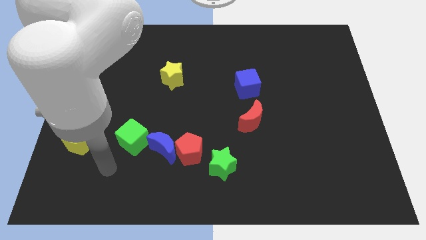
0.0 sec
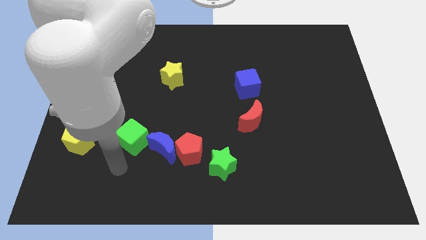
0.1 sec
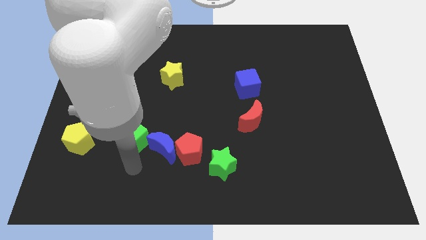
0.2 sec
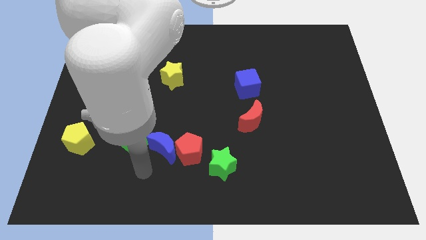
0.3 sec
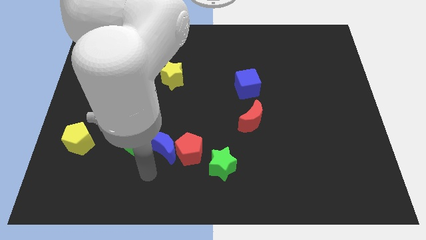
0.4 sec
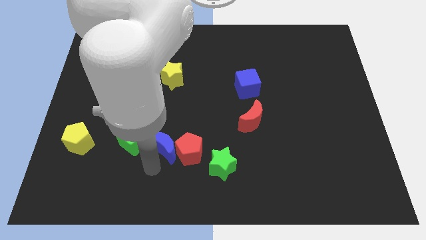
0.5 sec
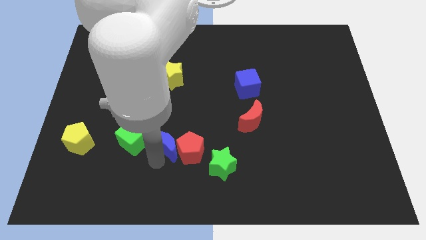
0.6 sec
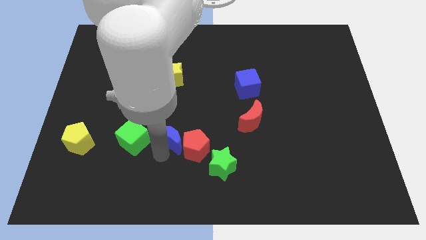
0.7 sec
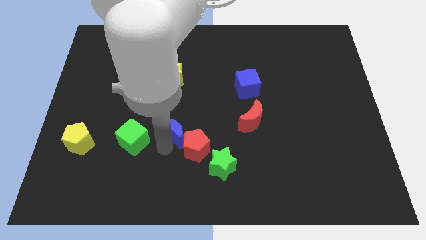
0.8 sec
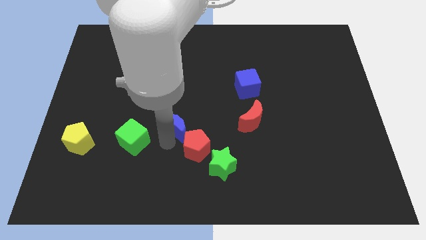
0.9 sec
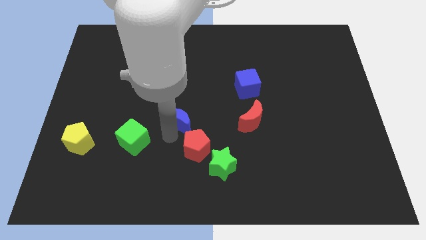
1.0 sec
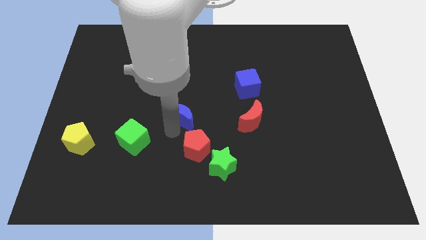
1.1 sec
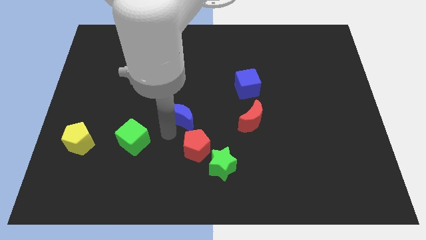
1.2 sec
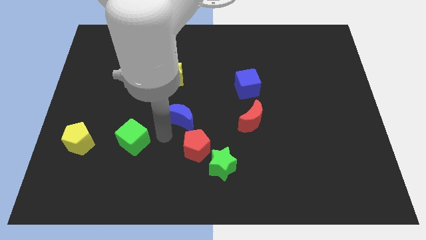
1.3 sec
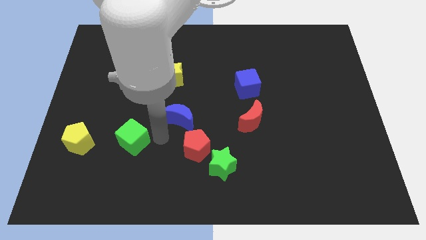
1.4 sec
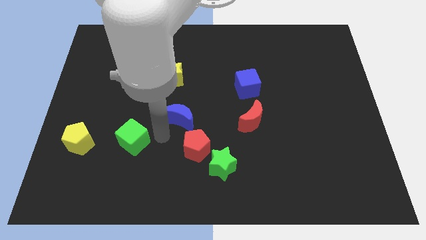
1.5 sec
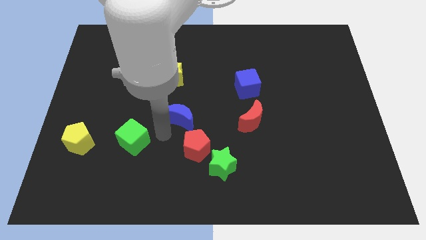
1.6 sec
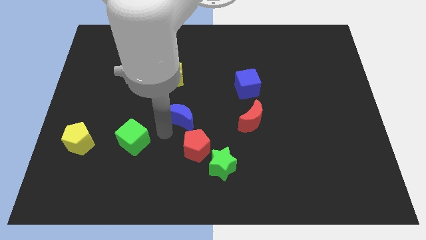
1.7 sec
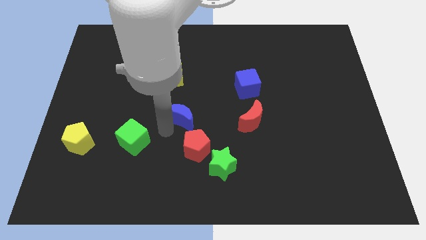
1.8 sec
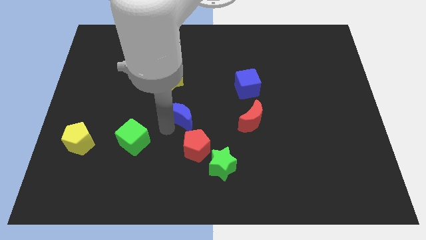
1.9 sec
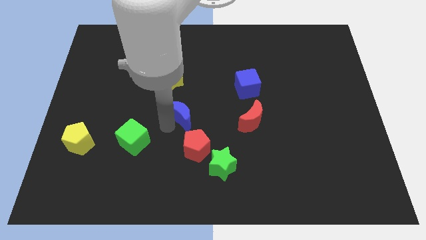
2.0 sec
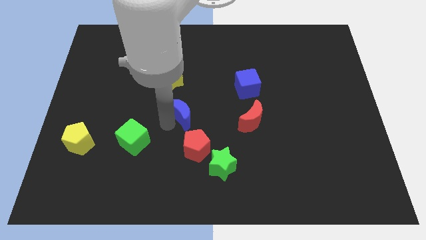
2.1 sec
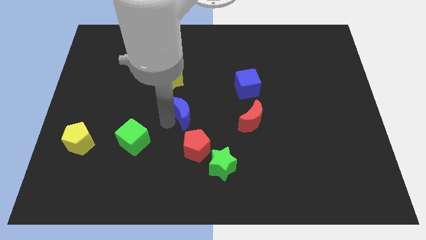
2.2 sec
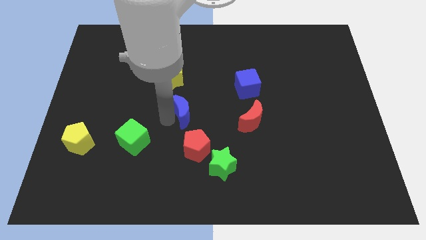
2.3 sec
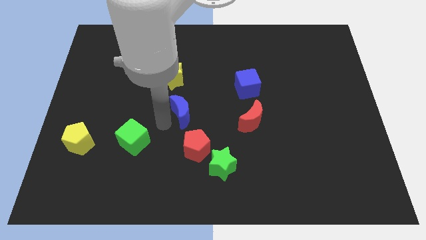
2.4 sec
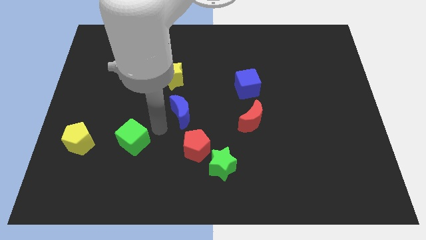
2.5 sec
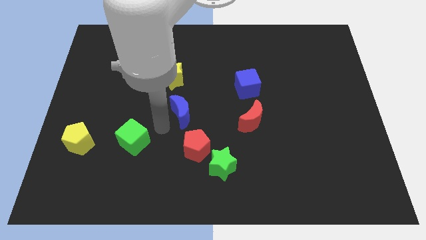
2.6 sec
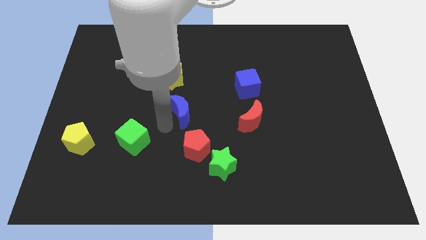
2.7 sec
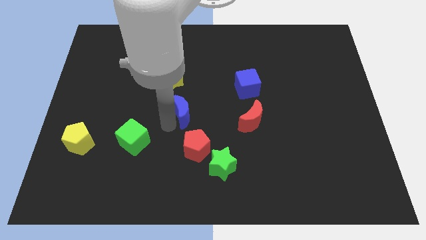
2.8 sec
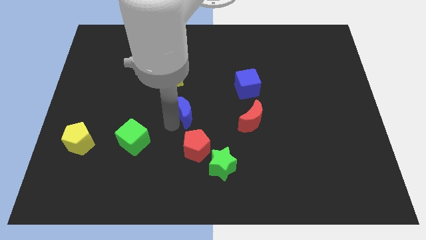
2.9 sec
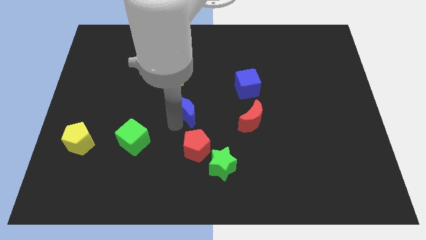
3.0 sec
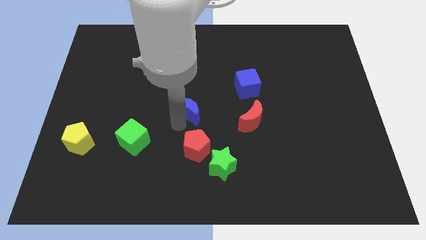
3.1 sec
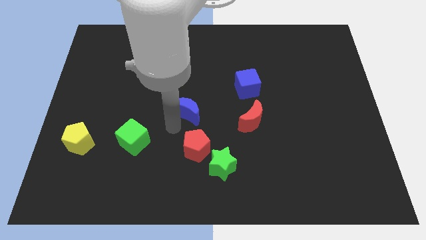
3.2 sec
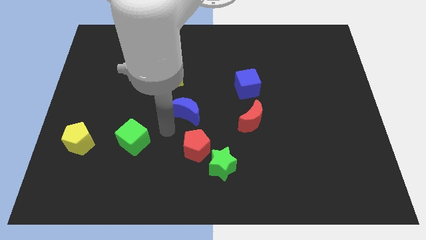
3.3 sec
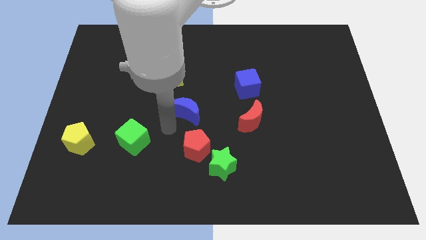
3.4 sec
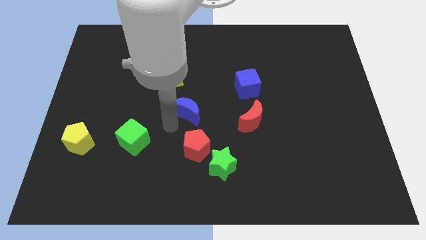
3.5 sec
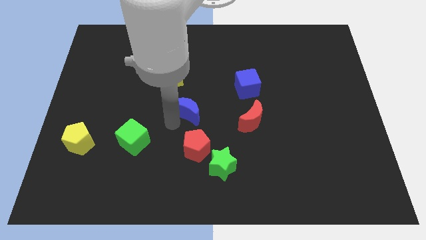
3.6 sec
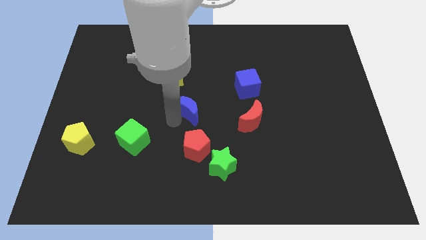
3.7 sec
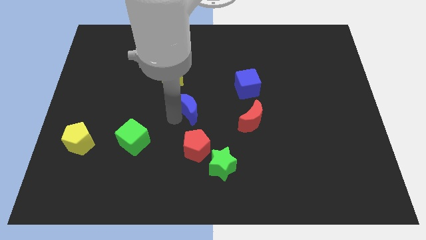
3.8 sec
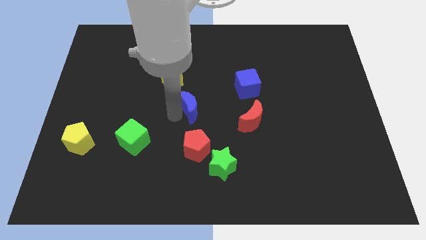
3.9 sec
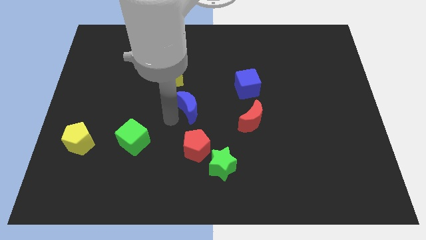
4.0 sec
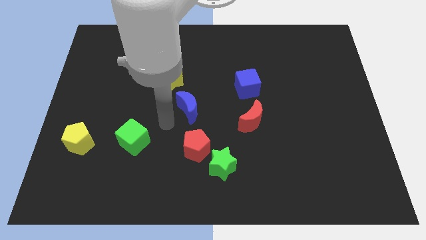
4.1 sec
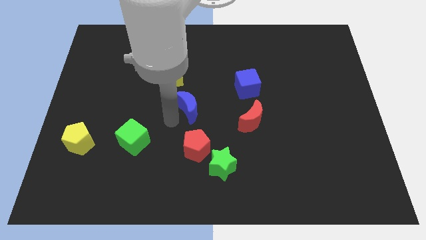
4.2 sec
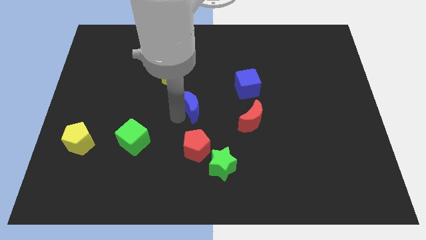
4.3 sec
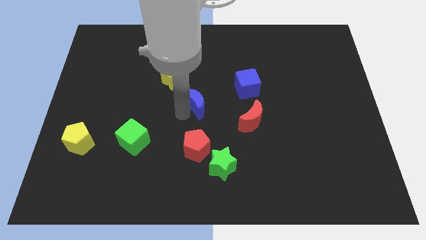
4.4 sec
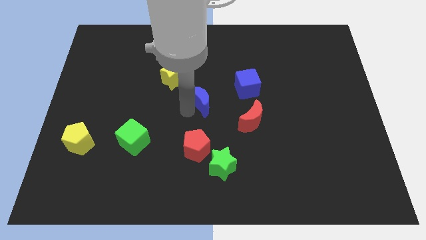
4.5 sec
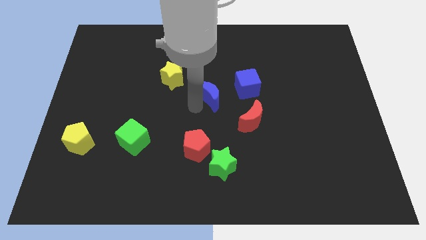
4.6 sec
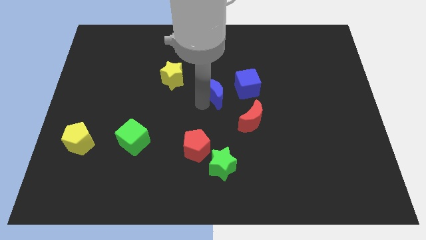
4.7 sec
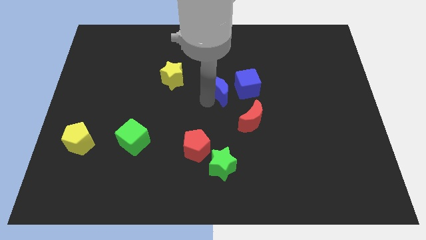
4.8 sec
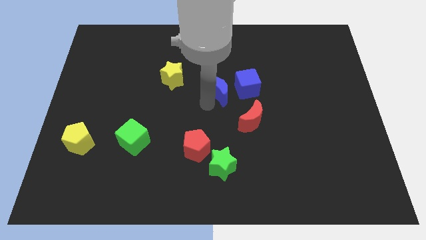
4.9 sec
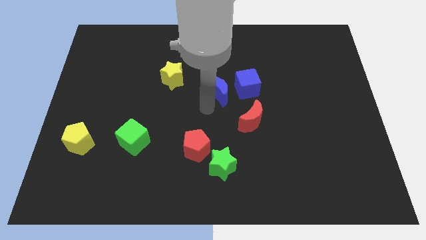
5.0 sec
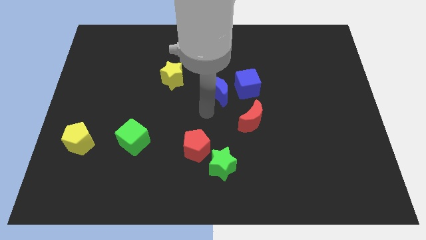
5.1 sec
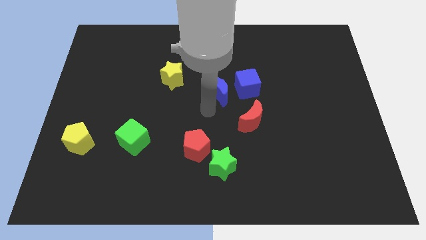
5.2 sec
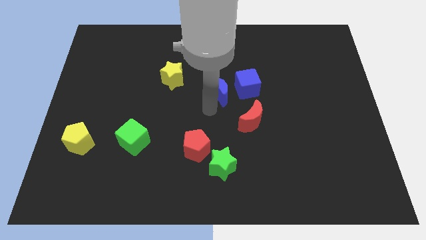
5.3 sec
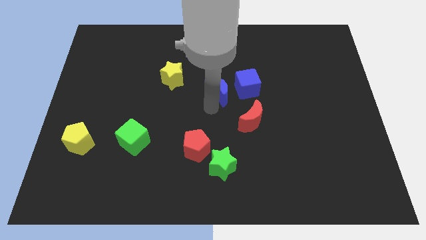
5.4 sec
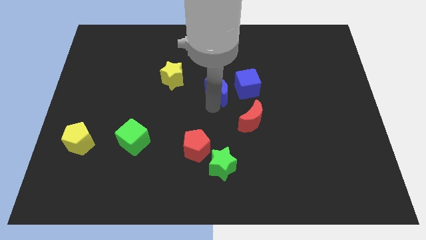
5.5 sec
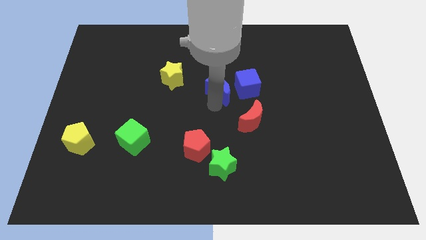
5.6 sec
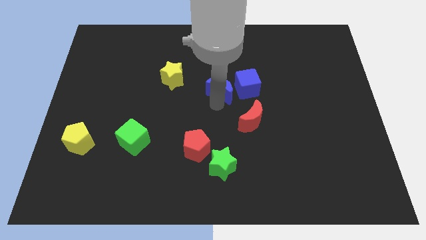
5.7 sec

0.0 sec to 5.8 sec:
slide the blue moon up and to the right

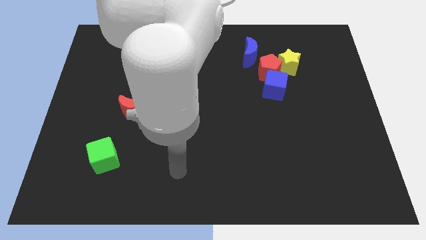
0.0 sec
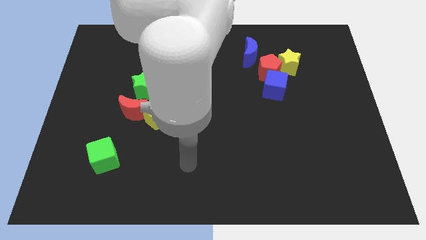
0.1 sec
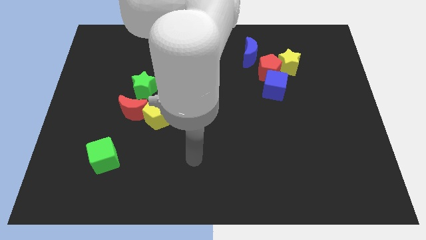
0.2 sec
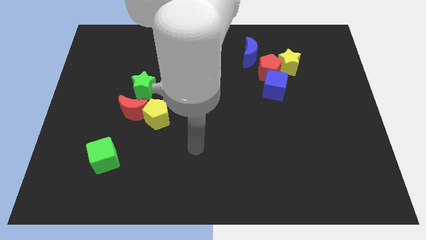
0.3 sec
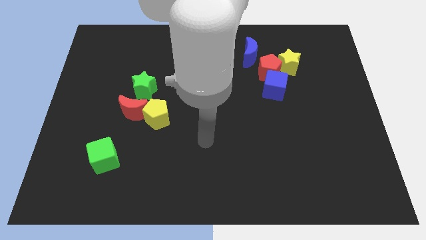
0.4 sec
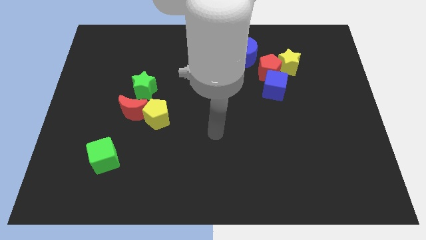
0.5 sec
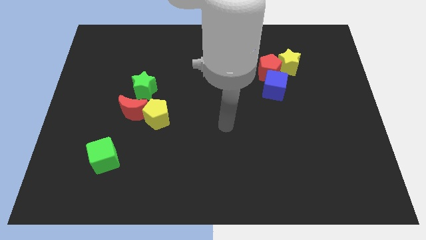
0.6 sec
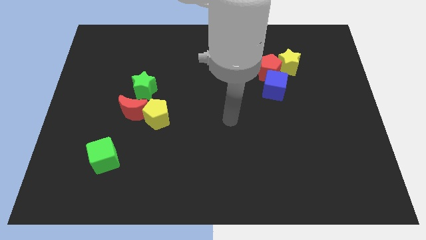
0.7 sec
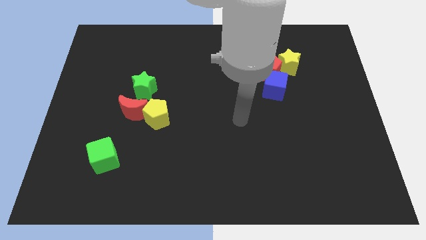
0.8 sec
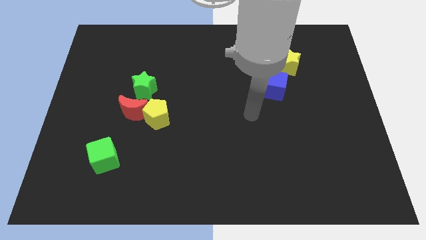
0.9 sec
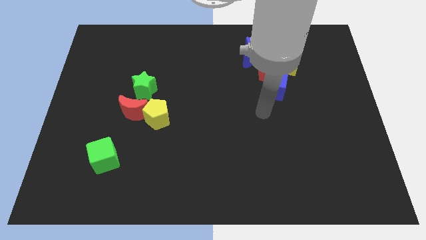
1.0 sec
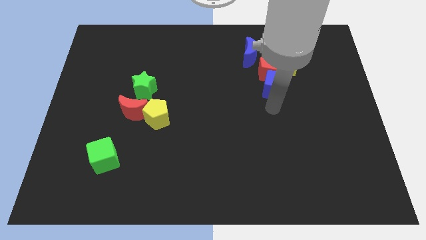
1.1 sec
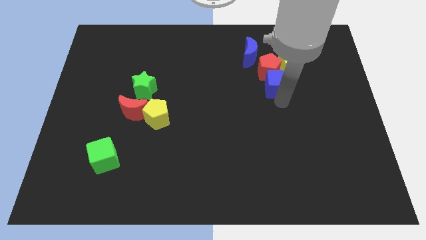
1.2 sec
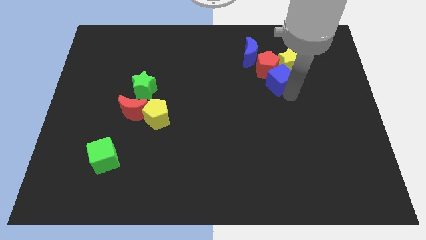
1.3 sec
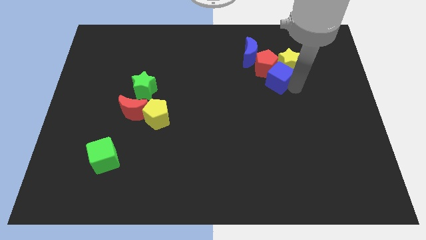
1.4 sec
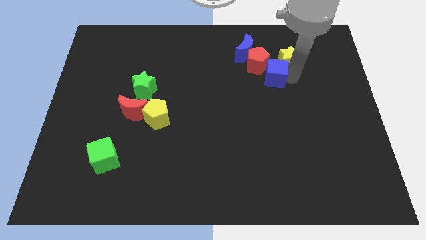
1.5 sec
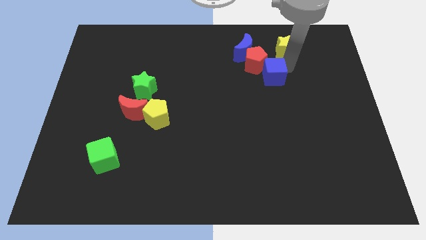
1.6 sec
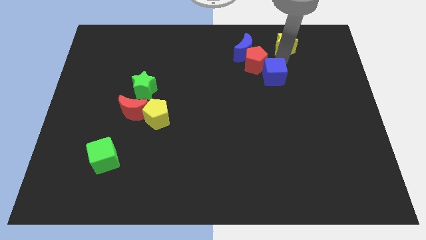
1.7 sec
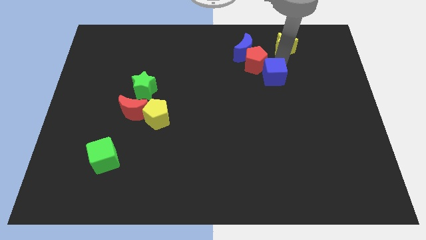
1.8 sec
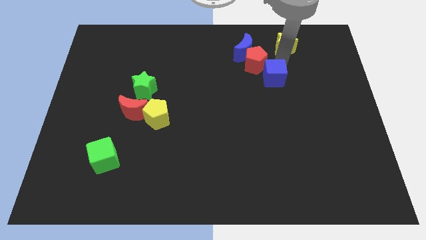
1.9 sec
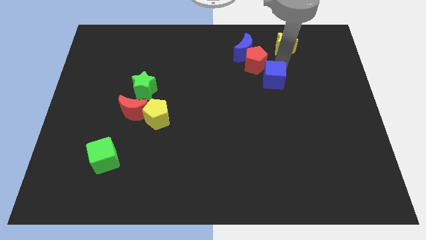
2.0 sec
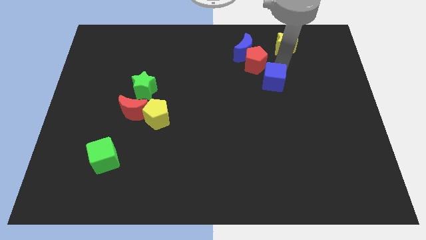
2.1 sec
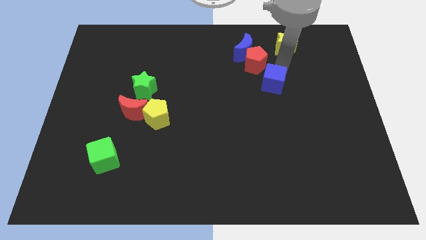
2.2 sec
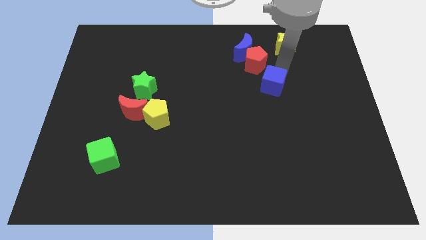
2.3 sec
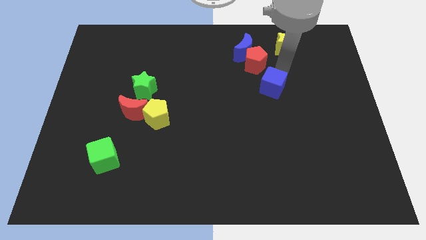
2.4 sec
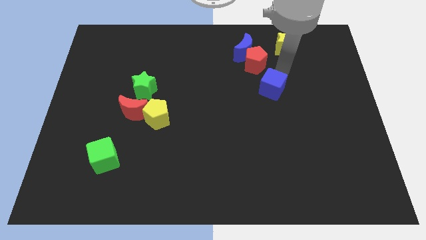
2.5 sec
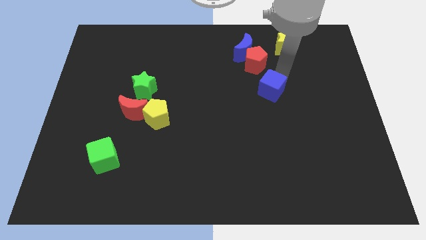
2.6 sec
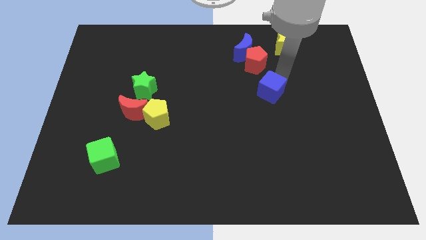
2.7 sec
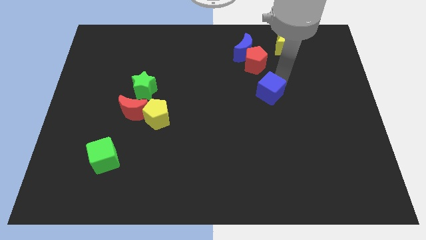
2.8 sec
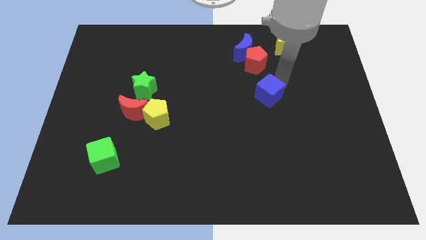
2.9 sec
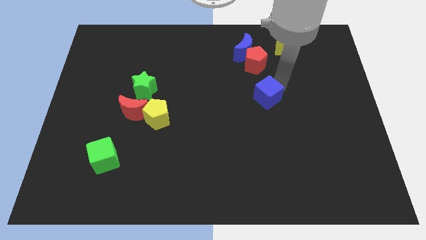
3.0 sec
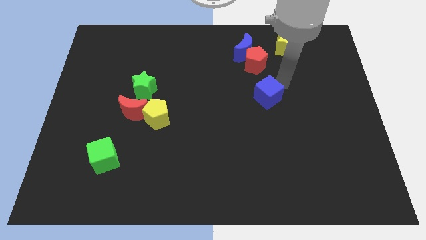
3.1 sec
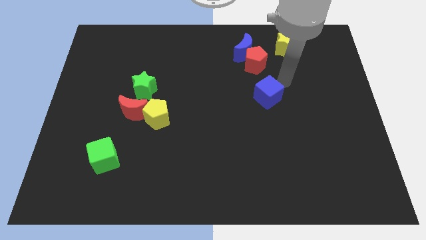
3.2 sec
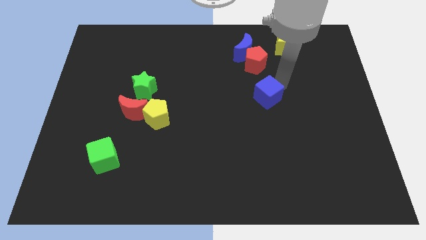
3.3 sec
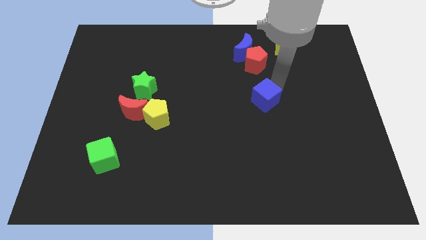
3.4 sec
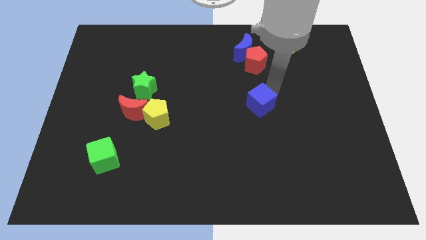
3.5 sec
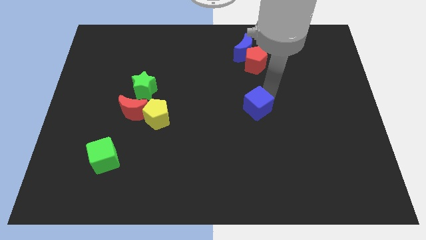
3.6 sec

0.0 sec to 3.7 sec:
slightly slide the blue cube down and left
